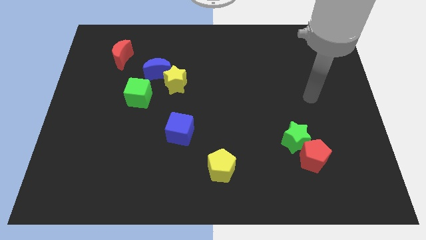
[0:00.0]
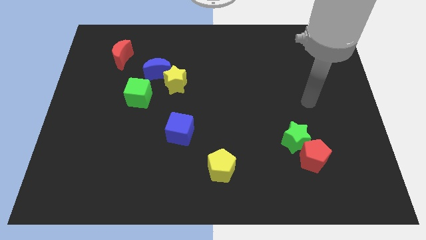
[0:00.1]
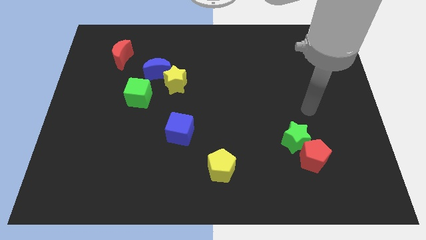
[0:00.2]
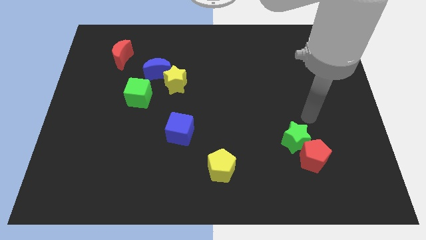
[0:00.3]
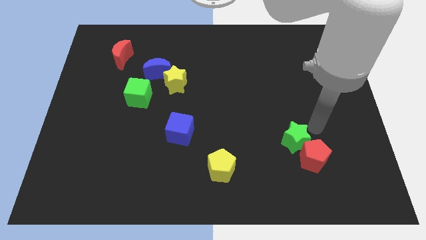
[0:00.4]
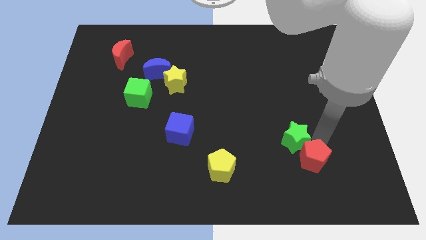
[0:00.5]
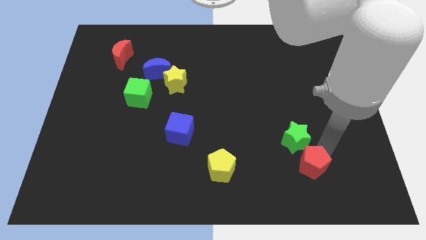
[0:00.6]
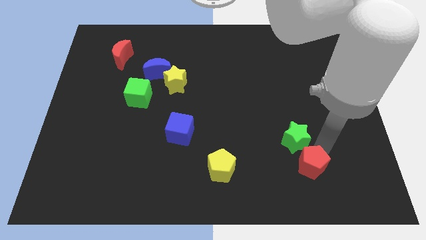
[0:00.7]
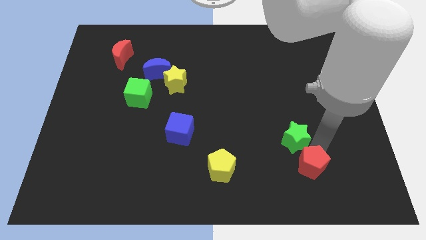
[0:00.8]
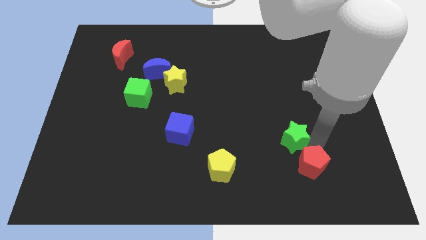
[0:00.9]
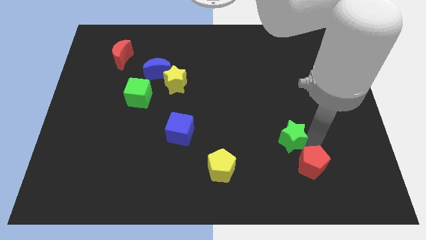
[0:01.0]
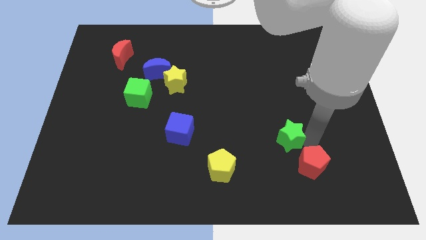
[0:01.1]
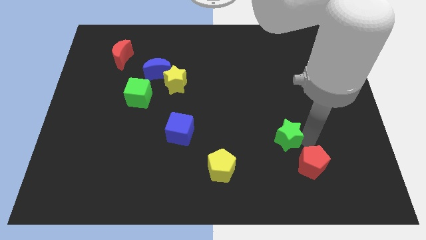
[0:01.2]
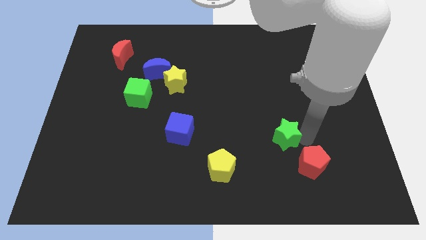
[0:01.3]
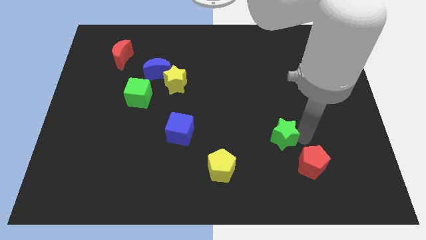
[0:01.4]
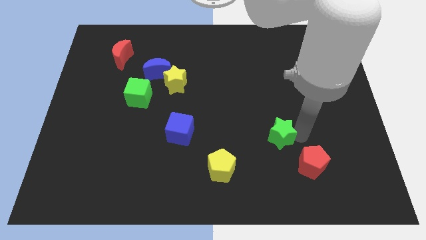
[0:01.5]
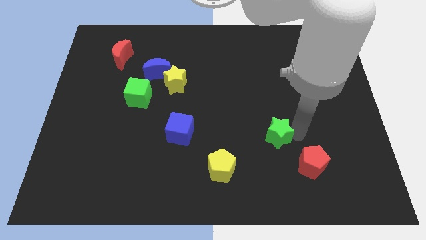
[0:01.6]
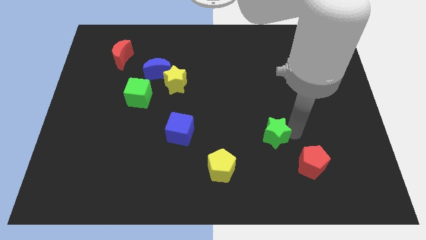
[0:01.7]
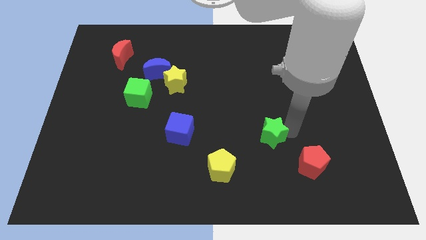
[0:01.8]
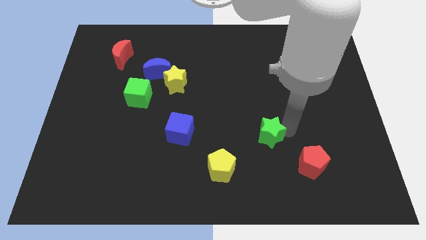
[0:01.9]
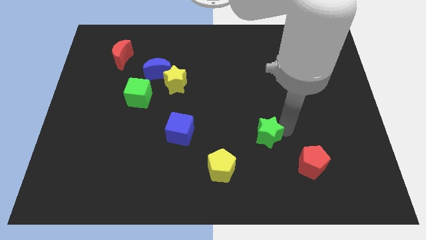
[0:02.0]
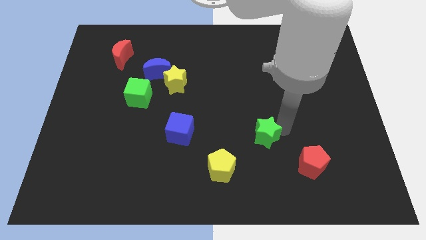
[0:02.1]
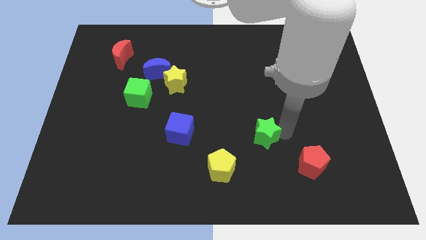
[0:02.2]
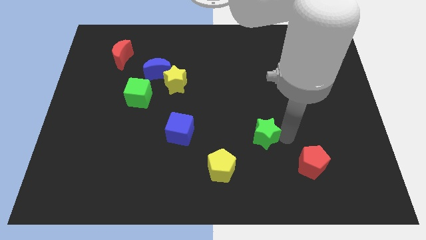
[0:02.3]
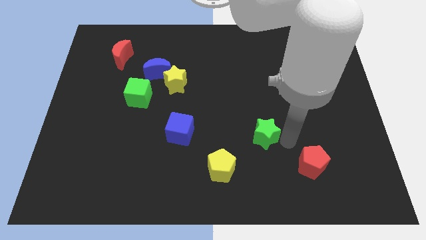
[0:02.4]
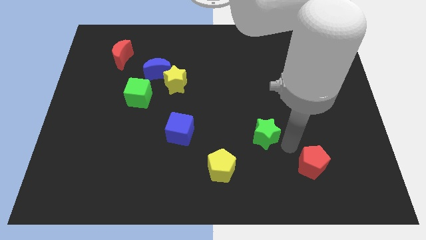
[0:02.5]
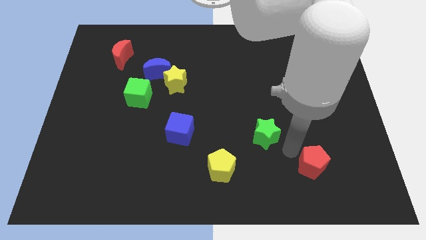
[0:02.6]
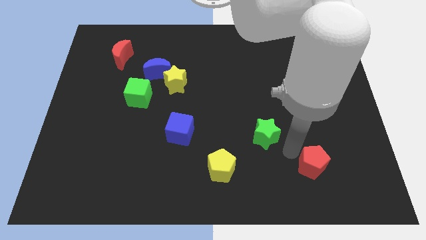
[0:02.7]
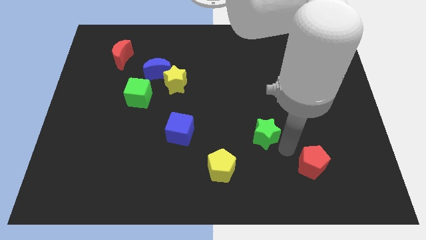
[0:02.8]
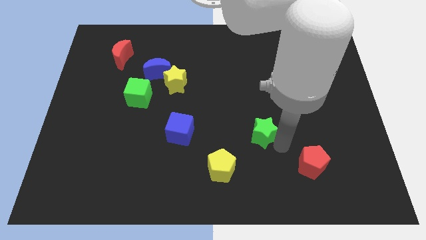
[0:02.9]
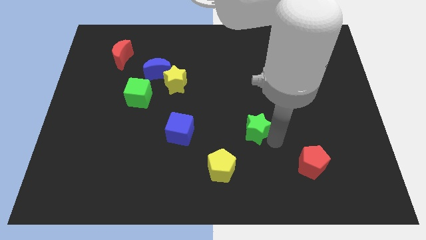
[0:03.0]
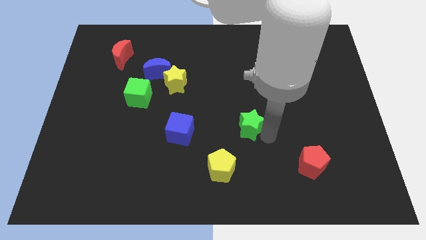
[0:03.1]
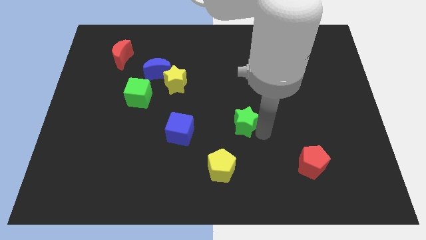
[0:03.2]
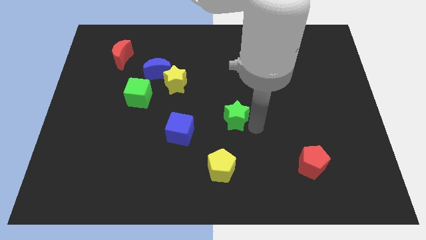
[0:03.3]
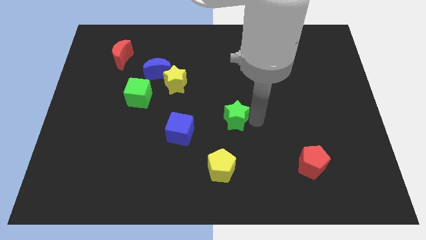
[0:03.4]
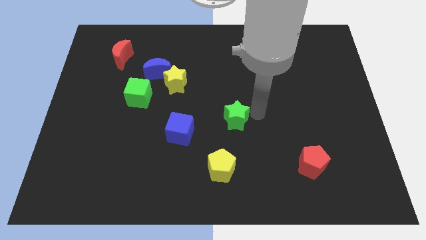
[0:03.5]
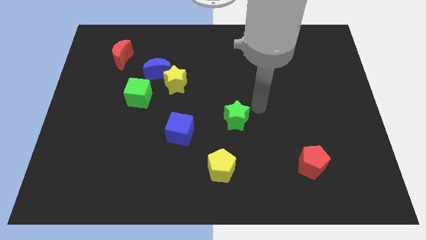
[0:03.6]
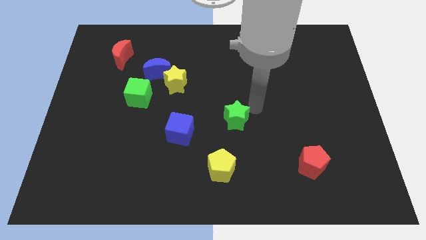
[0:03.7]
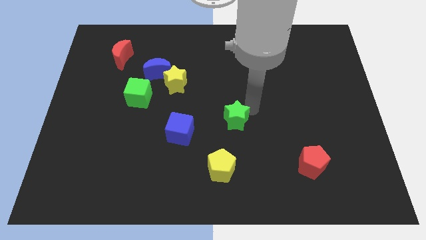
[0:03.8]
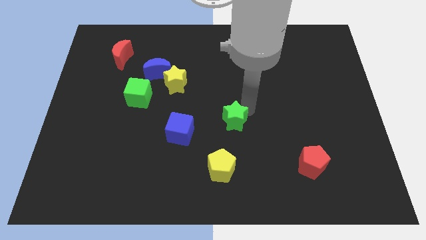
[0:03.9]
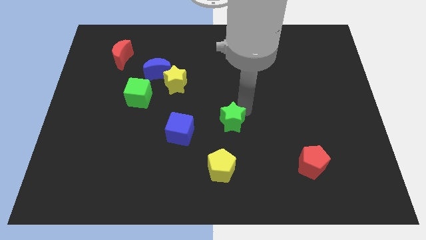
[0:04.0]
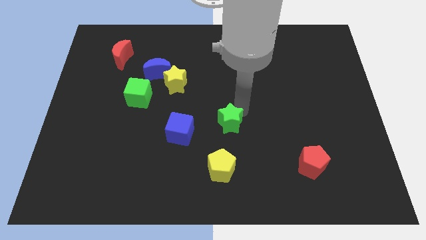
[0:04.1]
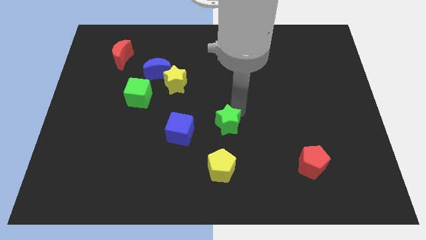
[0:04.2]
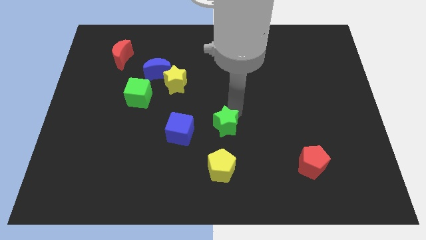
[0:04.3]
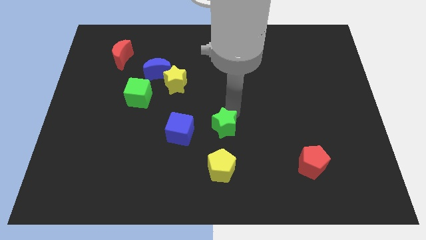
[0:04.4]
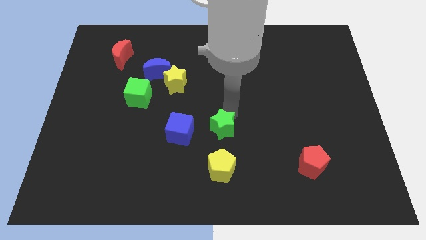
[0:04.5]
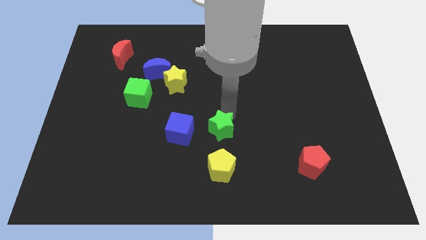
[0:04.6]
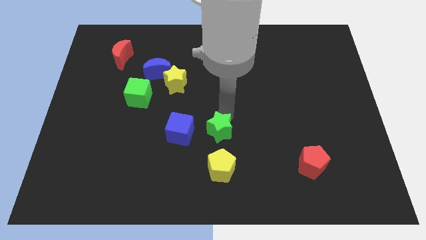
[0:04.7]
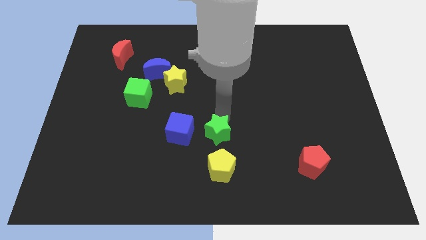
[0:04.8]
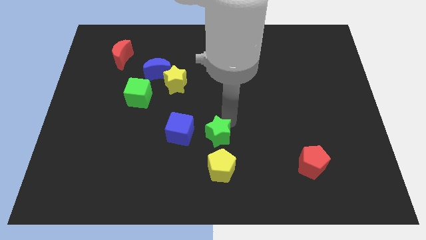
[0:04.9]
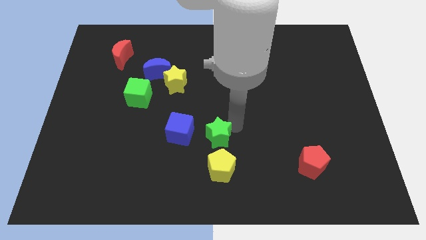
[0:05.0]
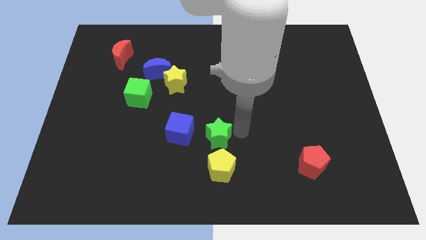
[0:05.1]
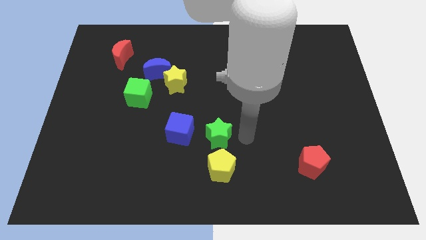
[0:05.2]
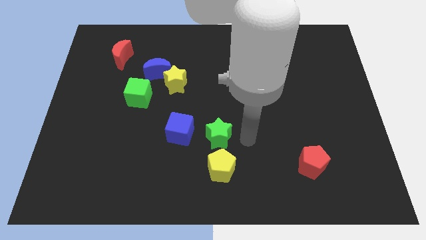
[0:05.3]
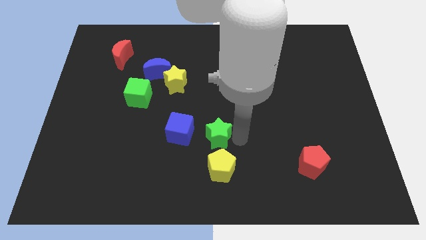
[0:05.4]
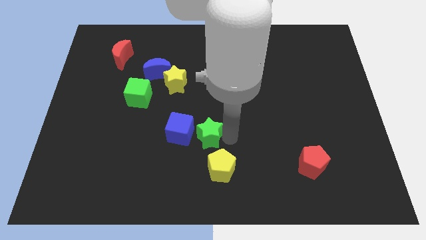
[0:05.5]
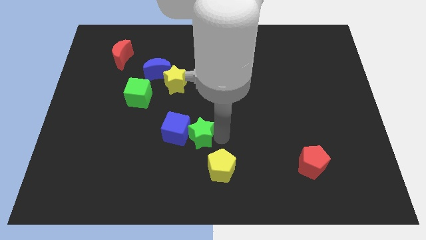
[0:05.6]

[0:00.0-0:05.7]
put the green star towards the blue cube
